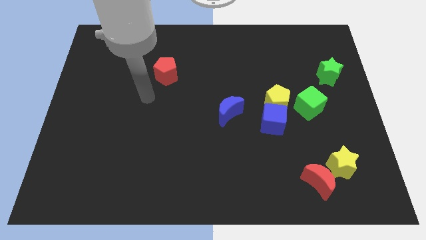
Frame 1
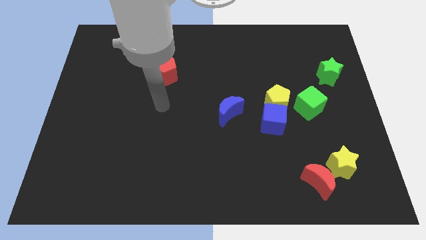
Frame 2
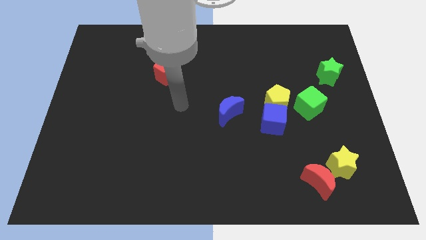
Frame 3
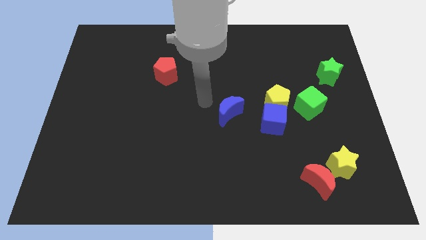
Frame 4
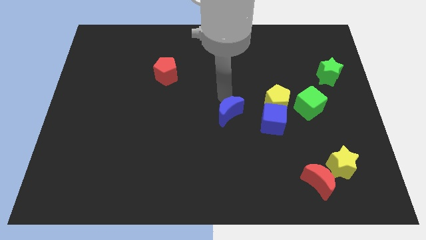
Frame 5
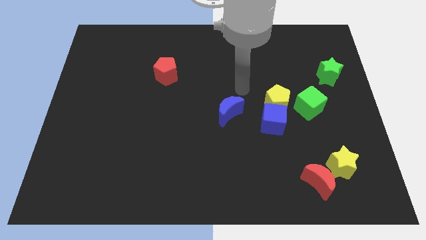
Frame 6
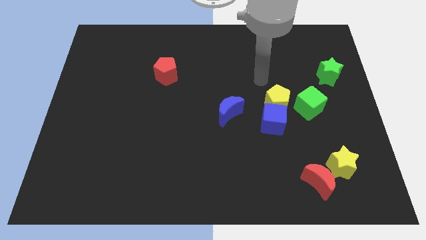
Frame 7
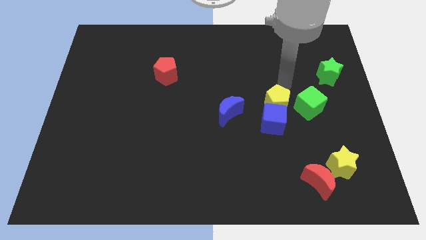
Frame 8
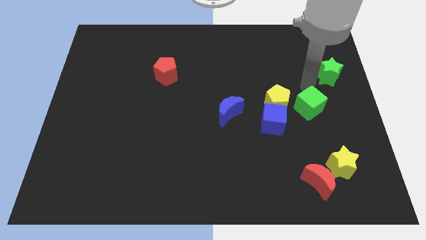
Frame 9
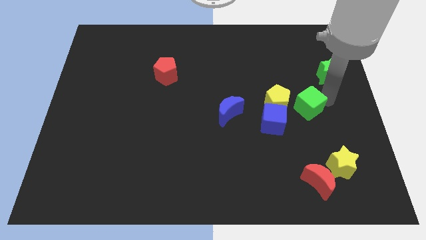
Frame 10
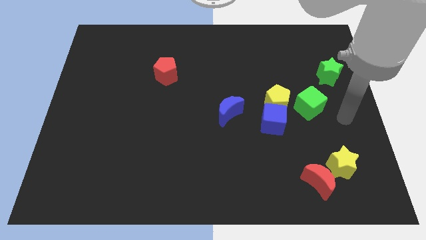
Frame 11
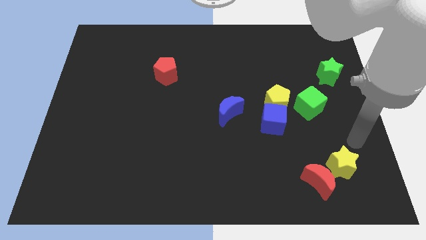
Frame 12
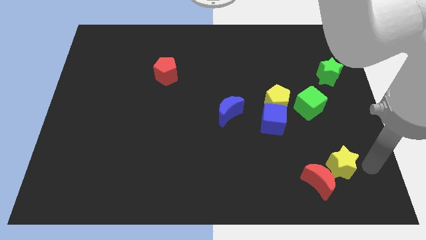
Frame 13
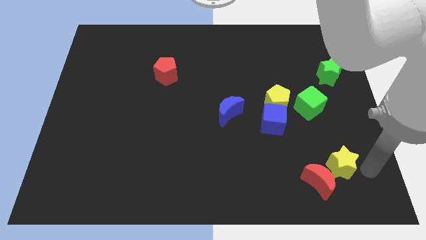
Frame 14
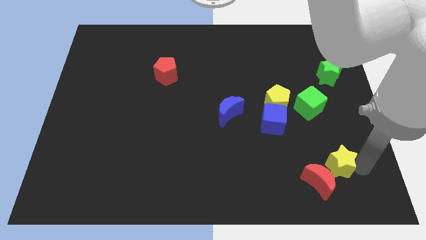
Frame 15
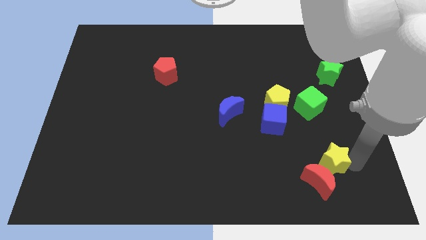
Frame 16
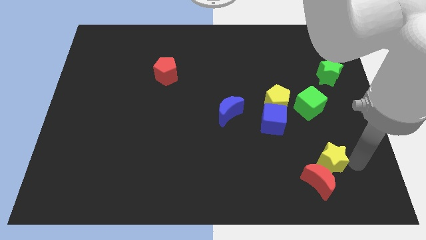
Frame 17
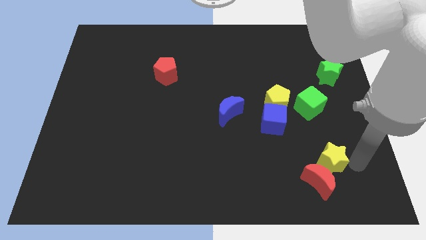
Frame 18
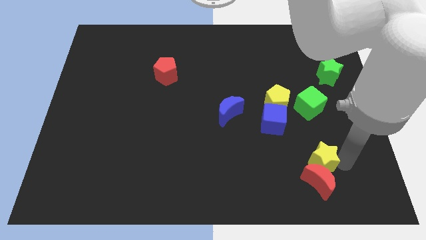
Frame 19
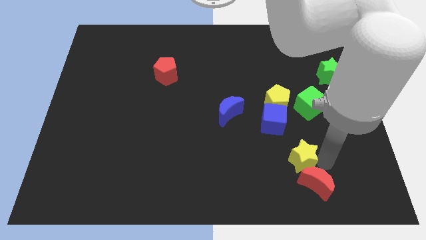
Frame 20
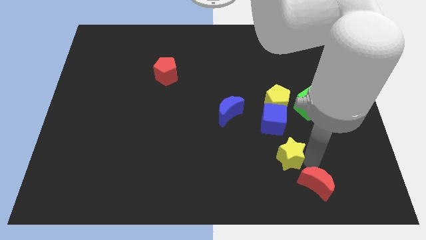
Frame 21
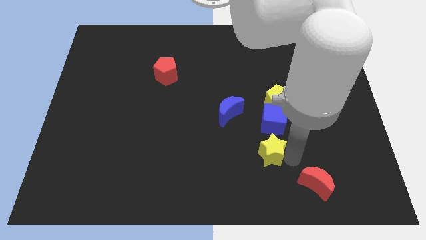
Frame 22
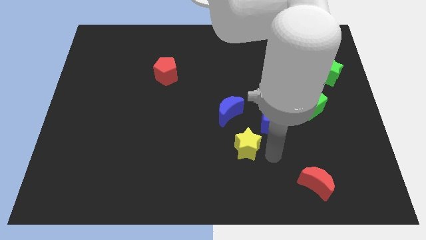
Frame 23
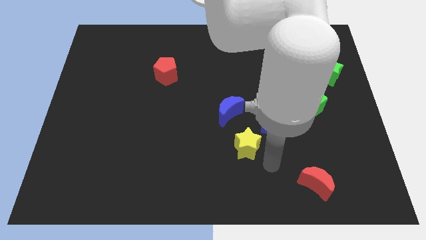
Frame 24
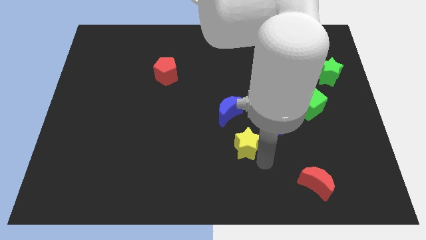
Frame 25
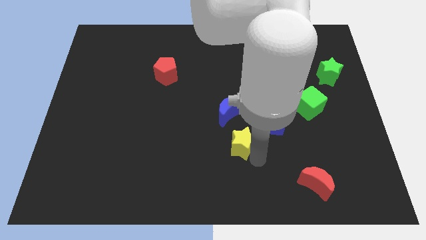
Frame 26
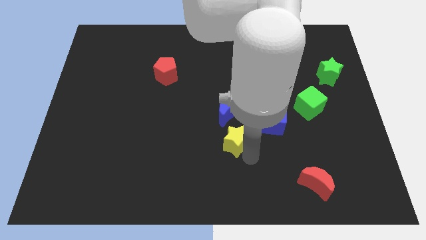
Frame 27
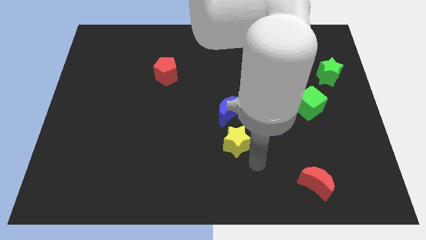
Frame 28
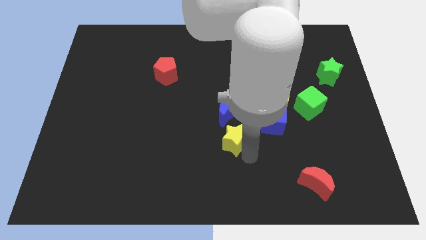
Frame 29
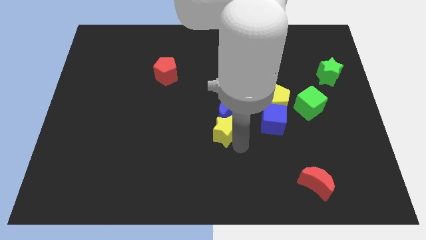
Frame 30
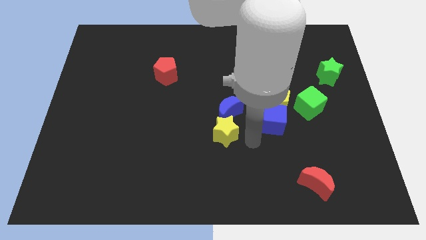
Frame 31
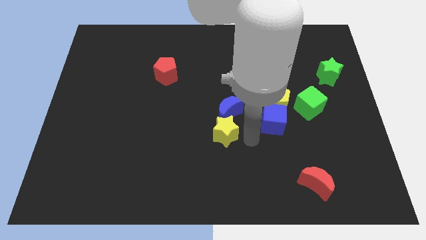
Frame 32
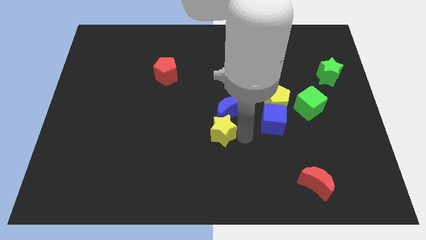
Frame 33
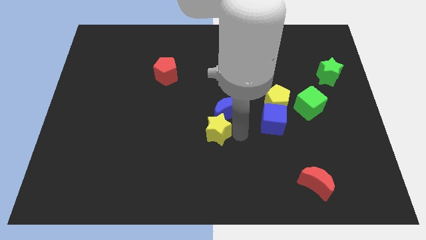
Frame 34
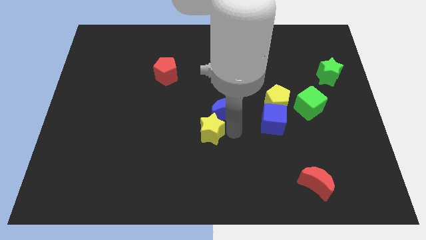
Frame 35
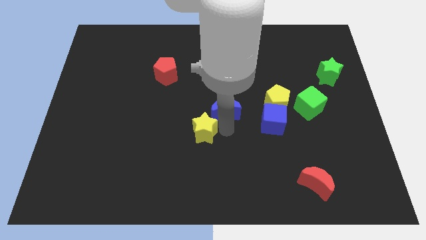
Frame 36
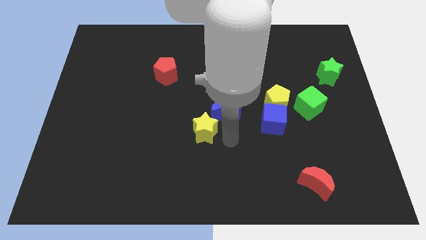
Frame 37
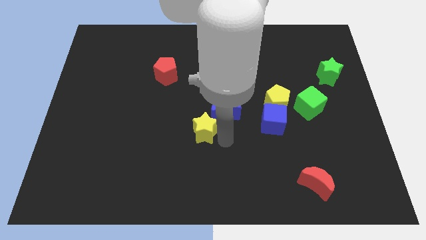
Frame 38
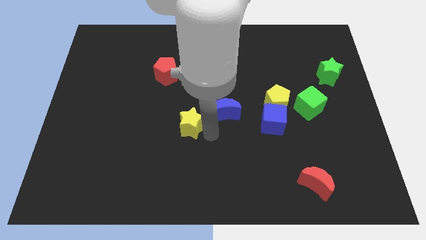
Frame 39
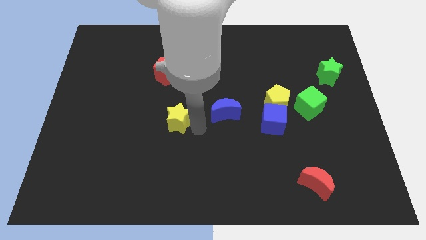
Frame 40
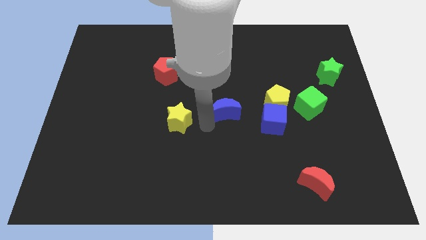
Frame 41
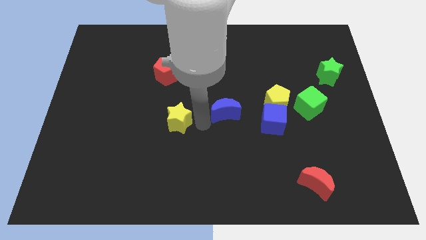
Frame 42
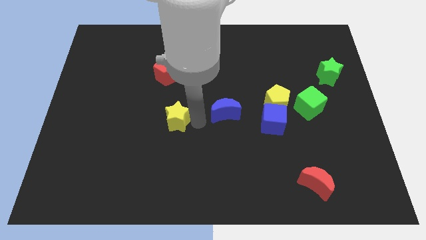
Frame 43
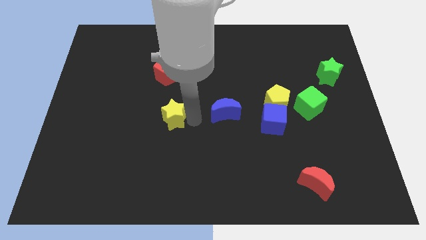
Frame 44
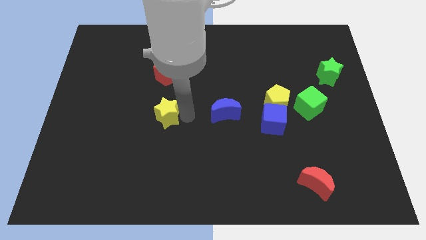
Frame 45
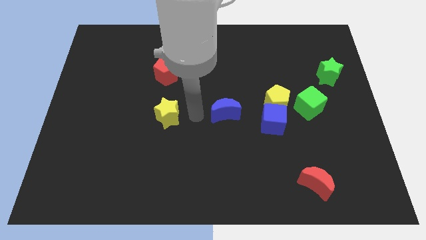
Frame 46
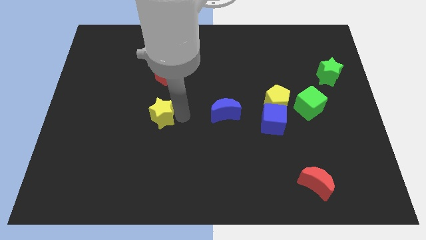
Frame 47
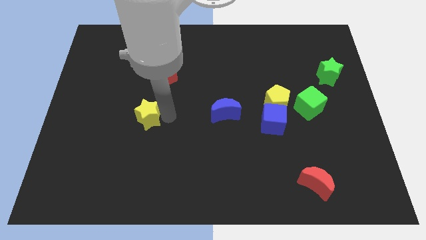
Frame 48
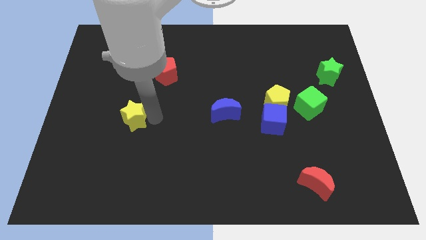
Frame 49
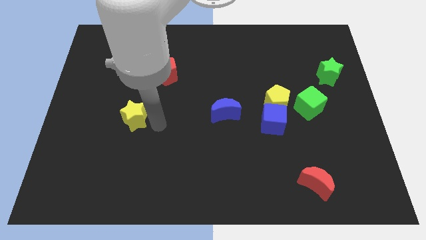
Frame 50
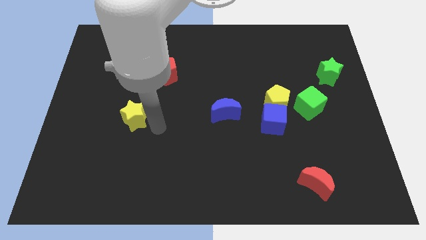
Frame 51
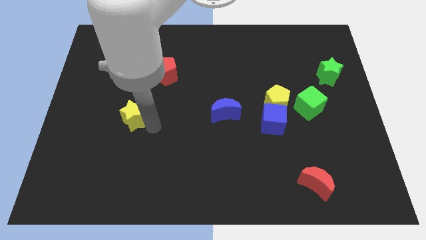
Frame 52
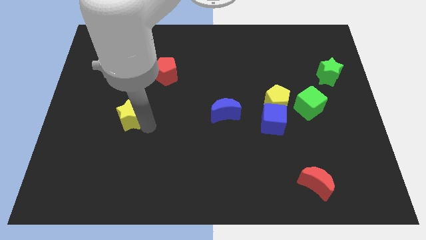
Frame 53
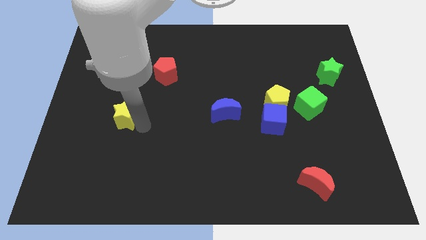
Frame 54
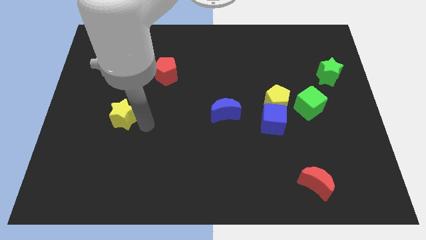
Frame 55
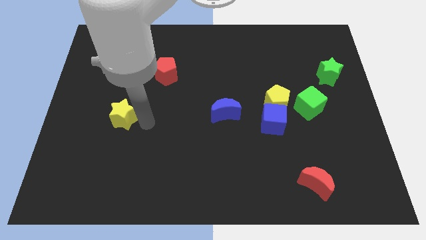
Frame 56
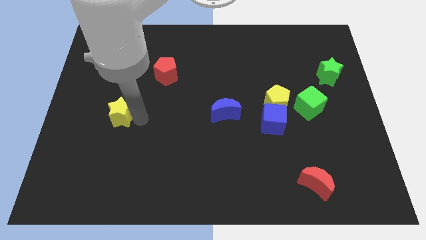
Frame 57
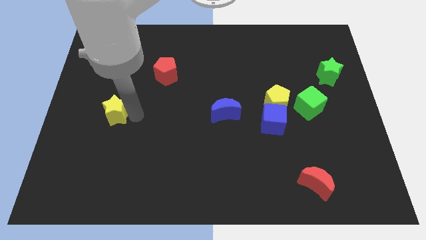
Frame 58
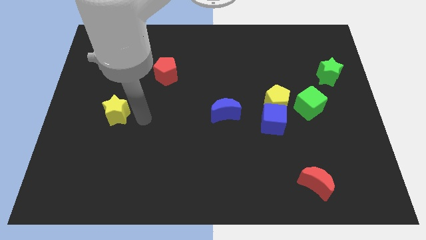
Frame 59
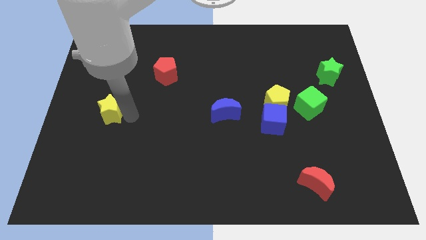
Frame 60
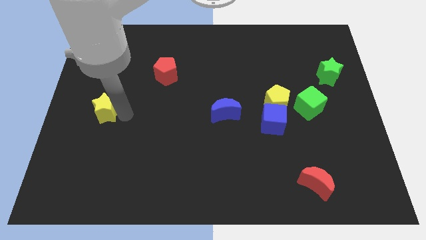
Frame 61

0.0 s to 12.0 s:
put the yellow star to the left side
